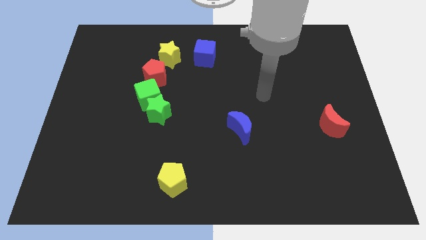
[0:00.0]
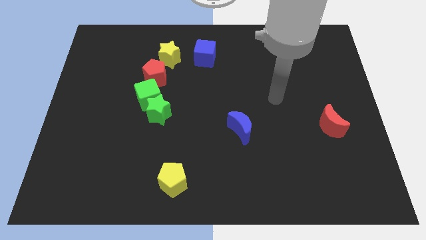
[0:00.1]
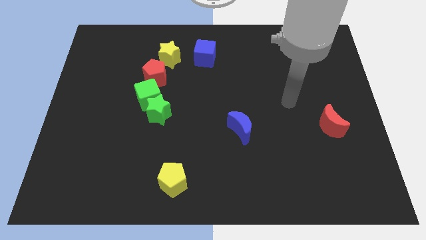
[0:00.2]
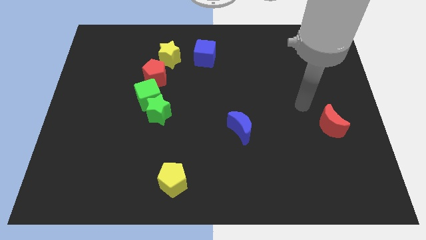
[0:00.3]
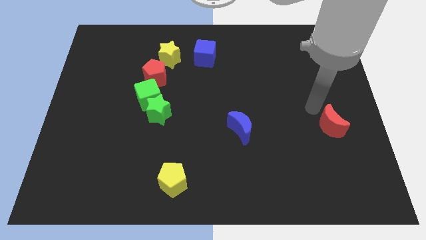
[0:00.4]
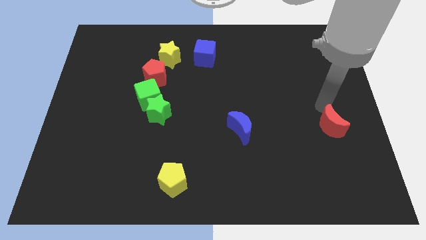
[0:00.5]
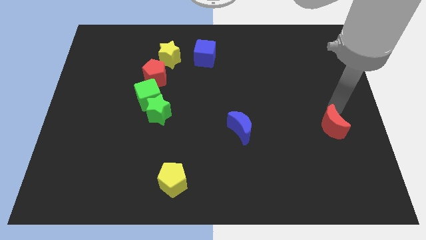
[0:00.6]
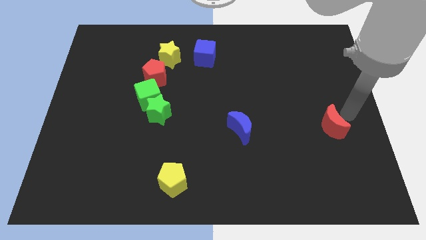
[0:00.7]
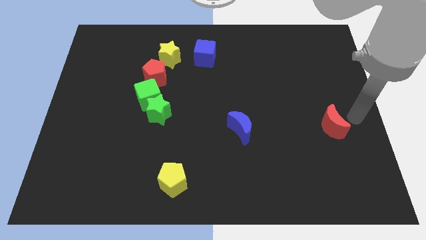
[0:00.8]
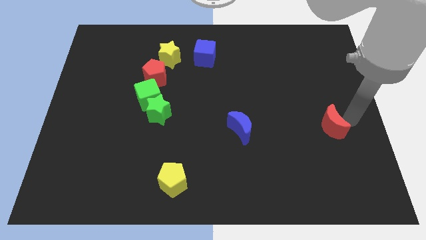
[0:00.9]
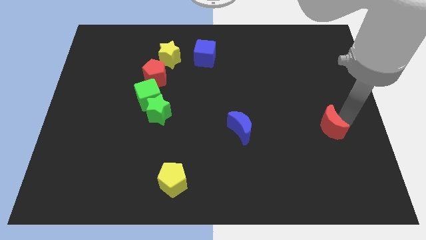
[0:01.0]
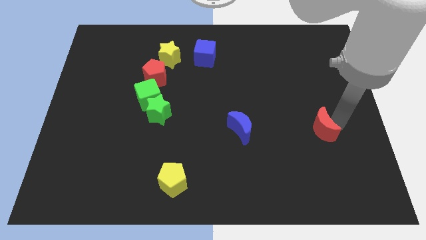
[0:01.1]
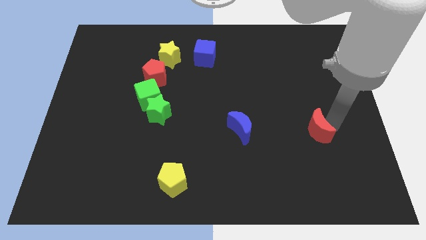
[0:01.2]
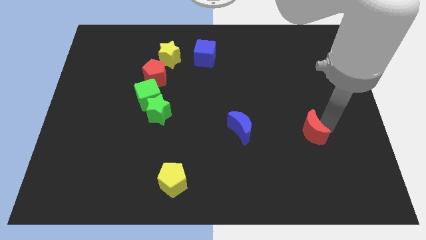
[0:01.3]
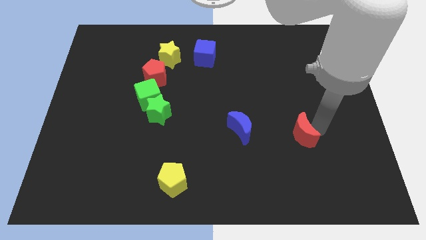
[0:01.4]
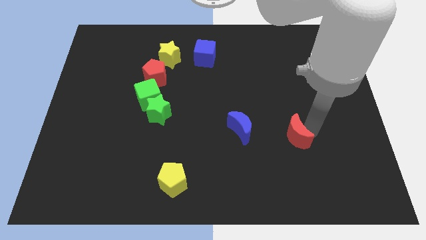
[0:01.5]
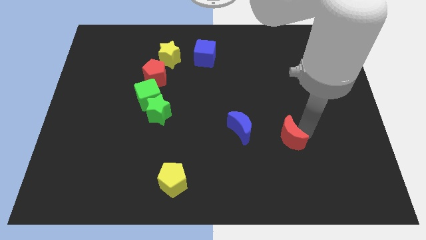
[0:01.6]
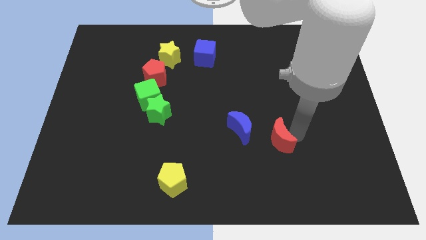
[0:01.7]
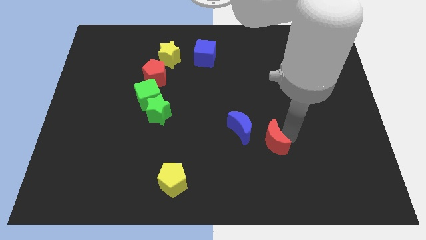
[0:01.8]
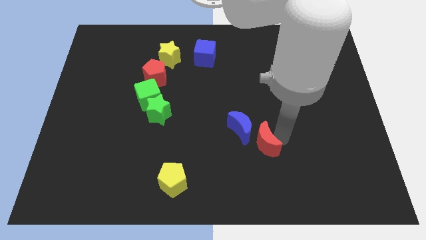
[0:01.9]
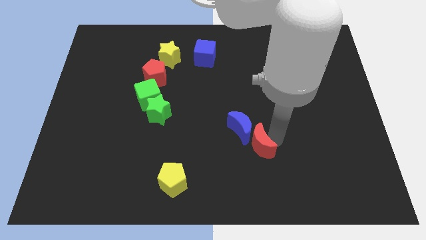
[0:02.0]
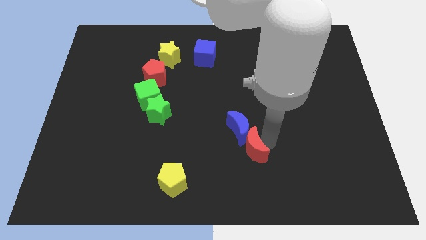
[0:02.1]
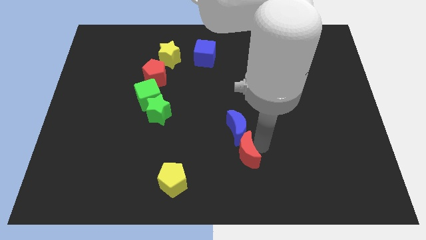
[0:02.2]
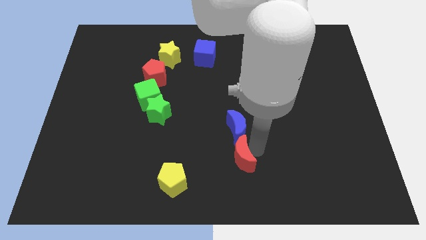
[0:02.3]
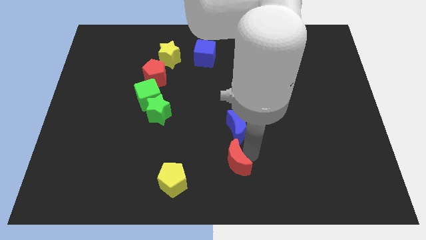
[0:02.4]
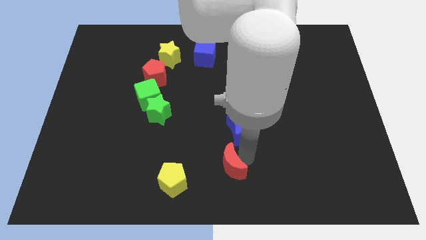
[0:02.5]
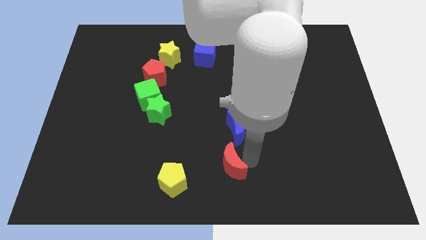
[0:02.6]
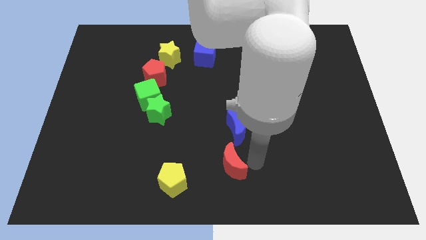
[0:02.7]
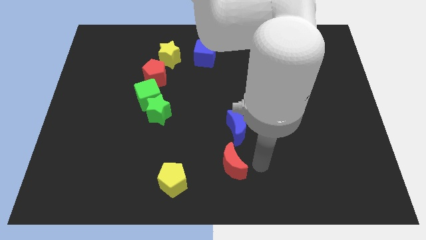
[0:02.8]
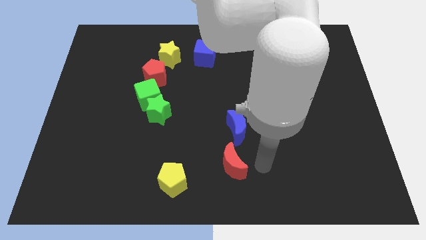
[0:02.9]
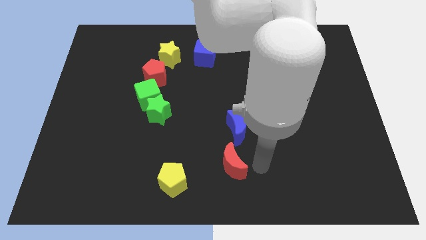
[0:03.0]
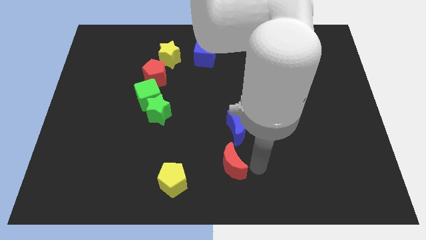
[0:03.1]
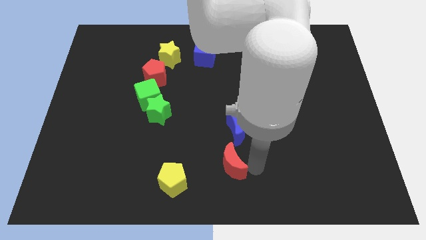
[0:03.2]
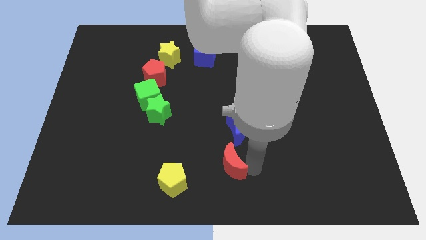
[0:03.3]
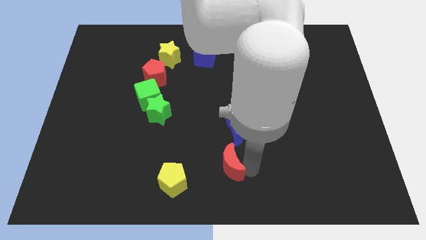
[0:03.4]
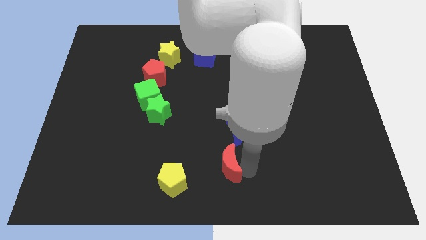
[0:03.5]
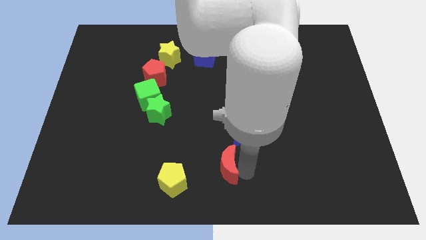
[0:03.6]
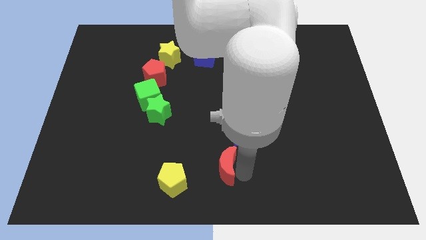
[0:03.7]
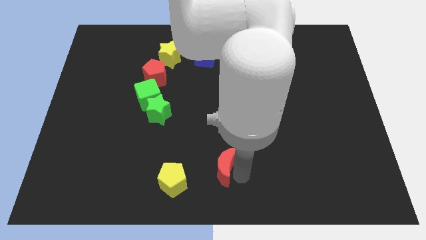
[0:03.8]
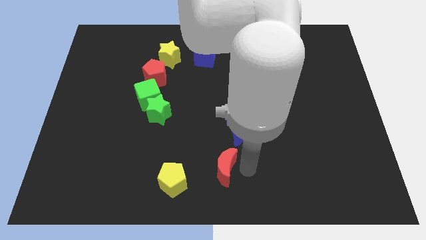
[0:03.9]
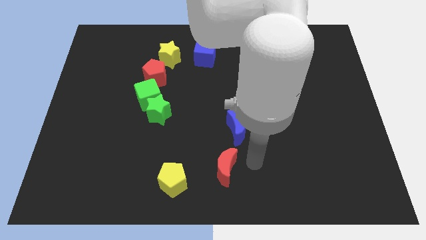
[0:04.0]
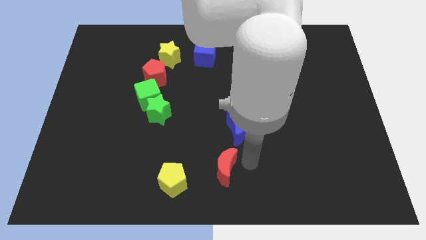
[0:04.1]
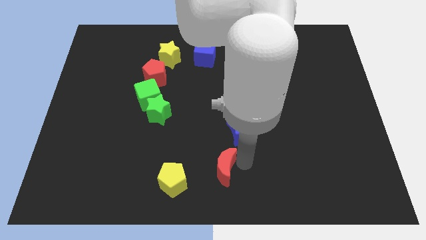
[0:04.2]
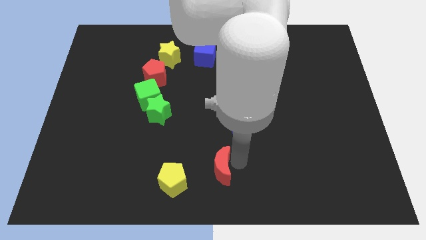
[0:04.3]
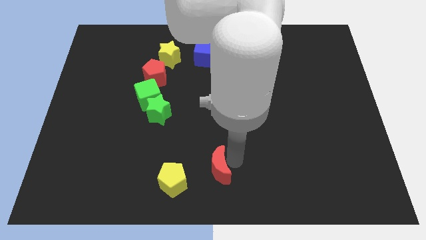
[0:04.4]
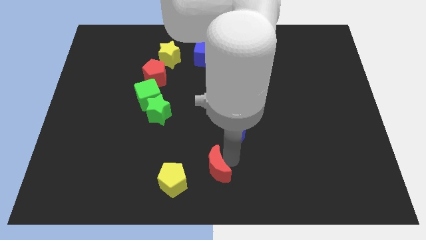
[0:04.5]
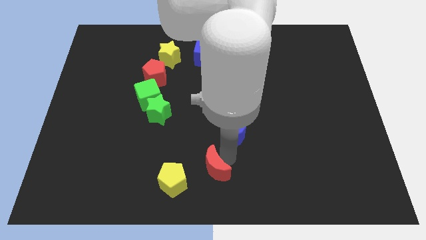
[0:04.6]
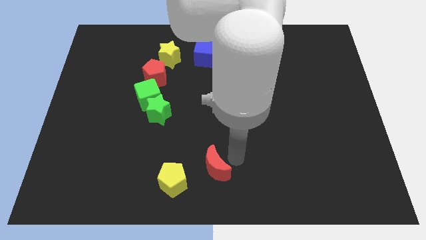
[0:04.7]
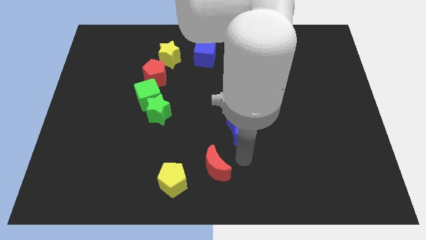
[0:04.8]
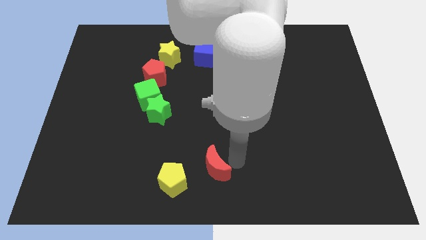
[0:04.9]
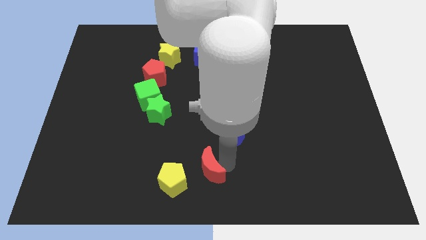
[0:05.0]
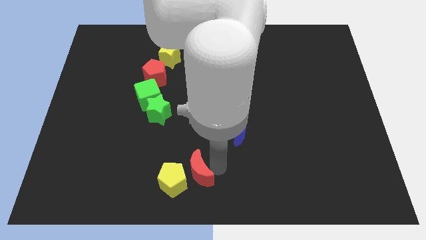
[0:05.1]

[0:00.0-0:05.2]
push the red moon towards the yellow pentagon

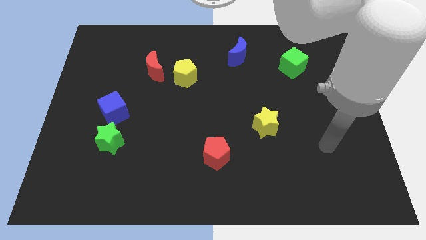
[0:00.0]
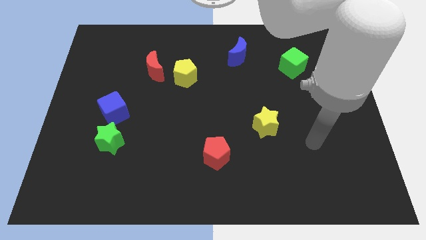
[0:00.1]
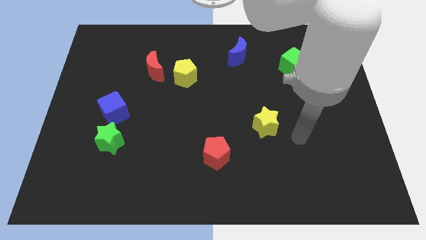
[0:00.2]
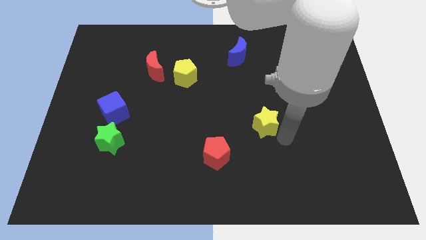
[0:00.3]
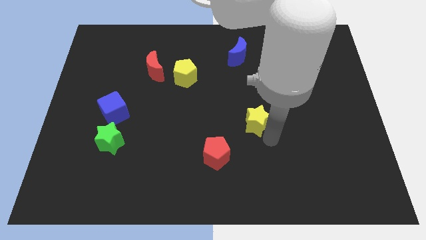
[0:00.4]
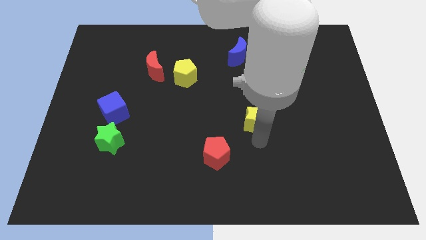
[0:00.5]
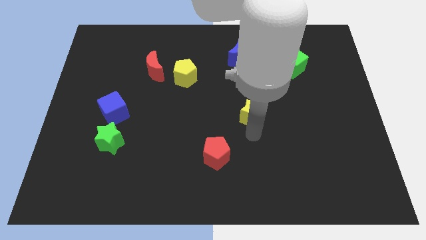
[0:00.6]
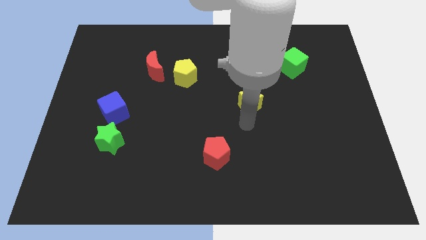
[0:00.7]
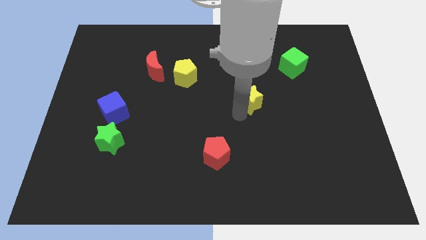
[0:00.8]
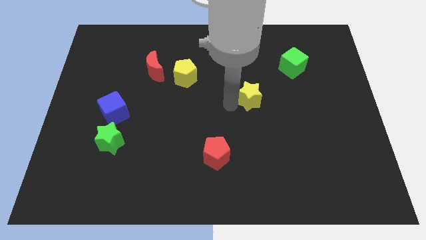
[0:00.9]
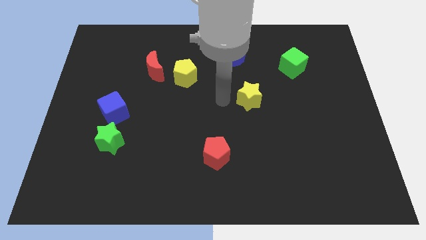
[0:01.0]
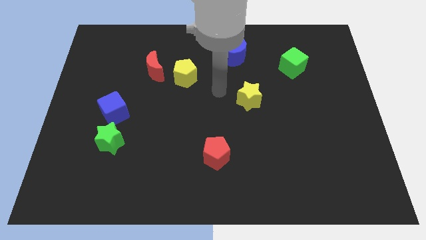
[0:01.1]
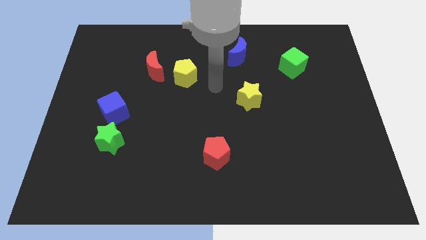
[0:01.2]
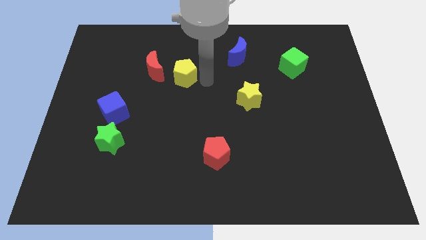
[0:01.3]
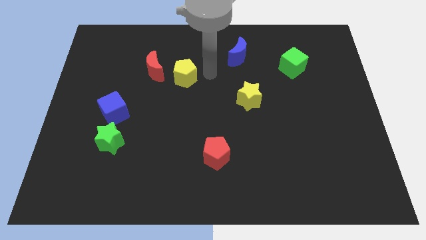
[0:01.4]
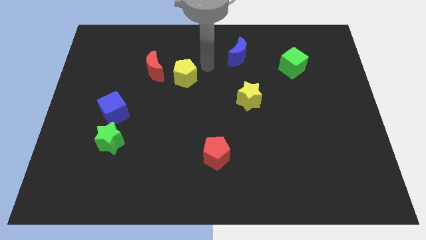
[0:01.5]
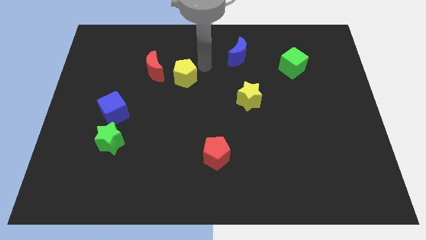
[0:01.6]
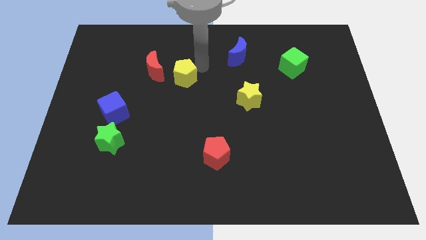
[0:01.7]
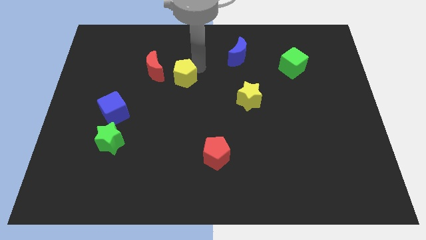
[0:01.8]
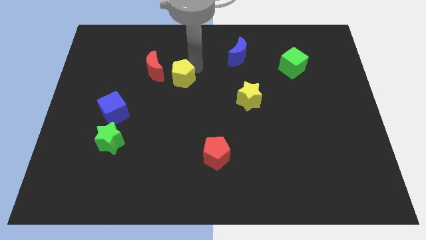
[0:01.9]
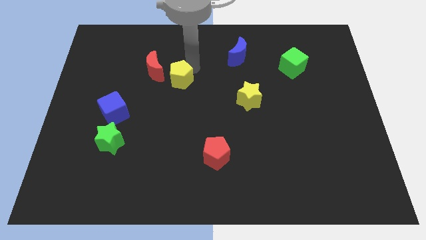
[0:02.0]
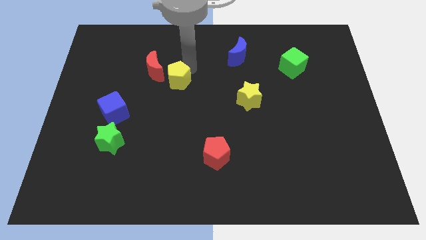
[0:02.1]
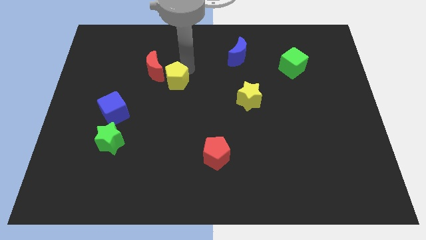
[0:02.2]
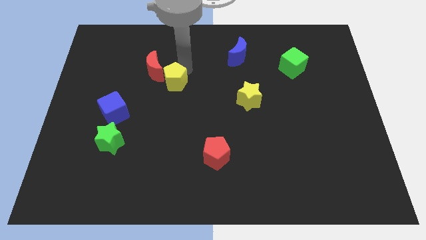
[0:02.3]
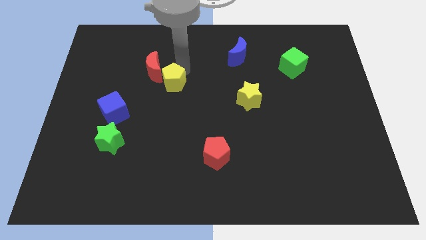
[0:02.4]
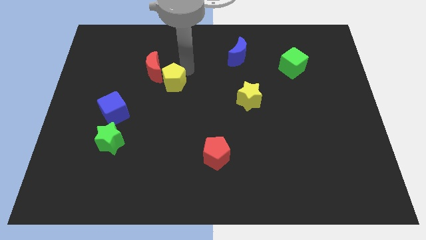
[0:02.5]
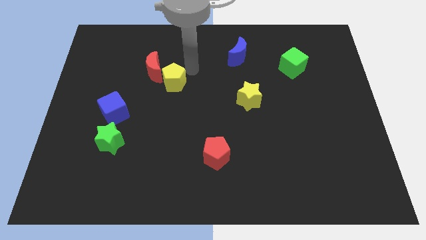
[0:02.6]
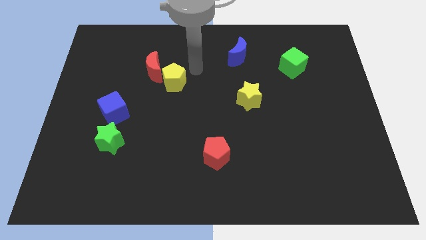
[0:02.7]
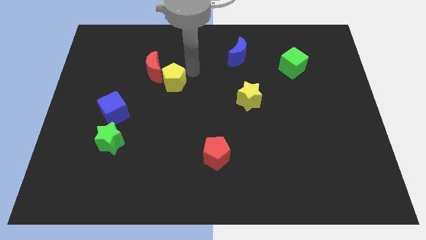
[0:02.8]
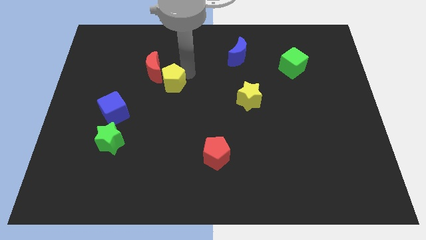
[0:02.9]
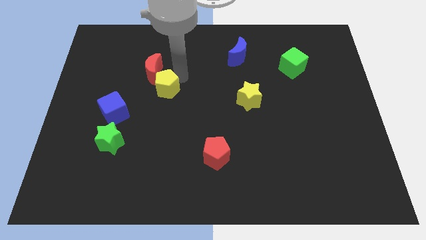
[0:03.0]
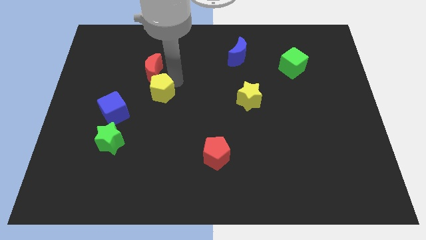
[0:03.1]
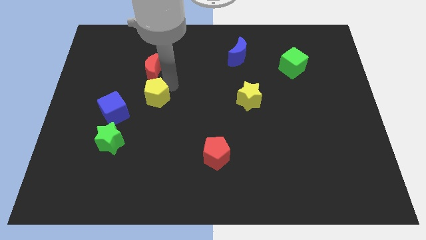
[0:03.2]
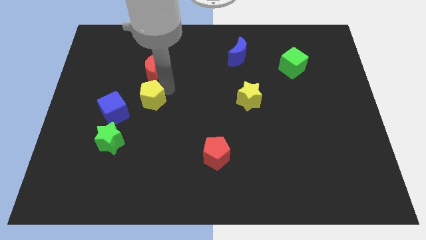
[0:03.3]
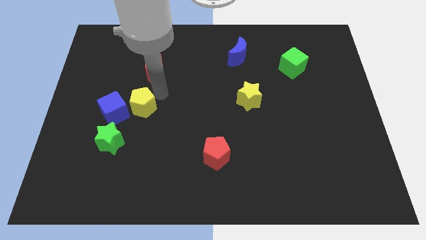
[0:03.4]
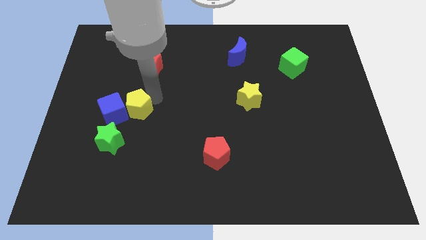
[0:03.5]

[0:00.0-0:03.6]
push the yellow pentagon close to the blue cube
